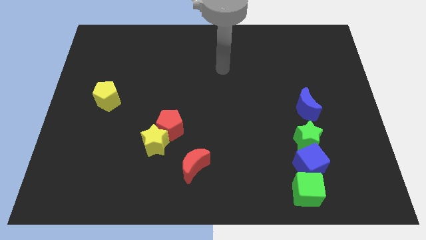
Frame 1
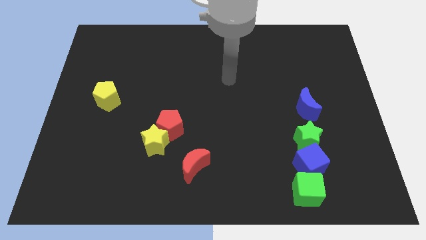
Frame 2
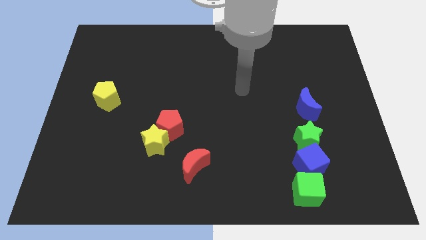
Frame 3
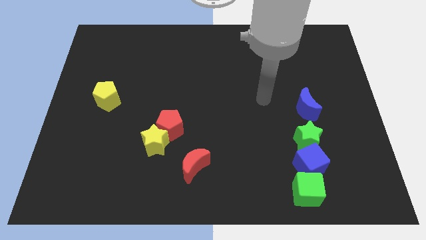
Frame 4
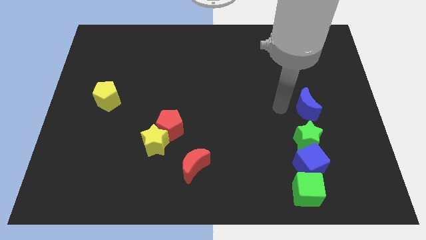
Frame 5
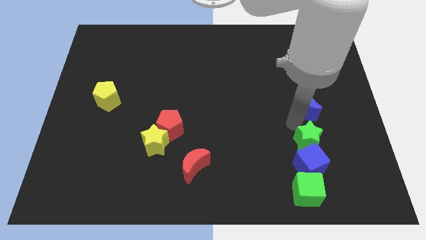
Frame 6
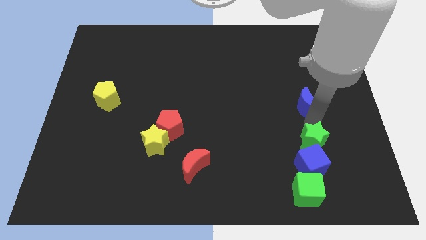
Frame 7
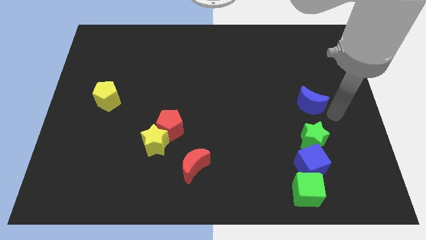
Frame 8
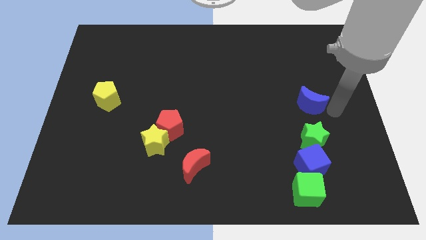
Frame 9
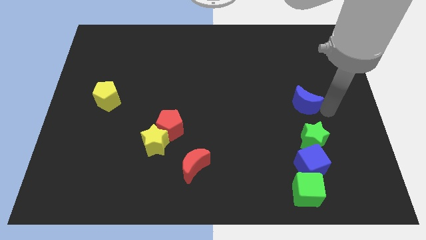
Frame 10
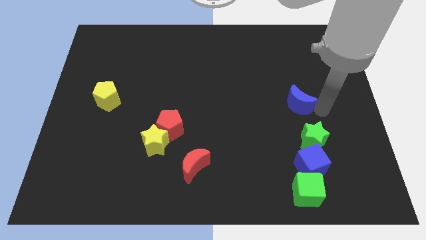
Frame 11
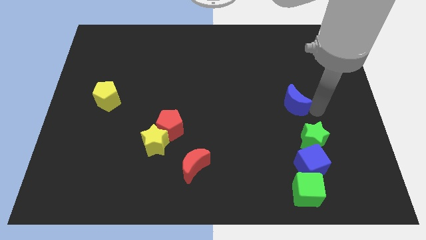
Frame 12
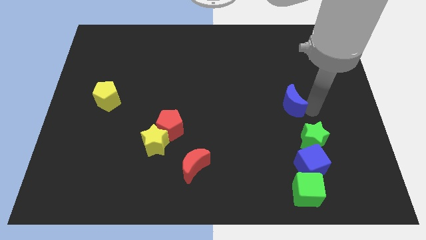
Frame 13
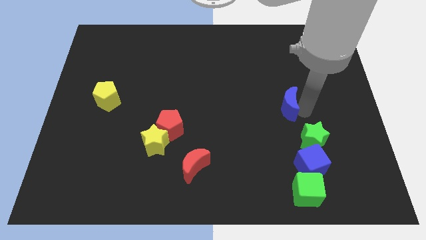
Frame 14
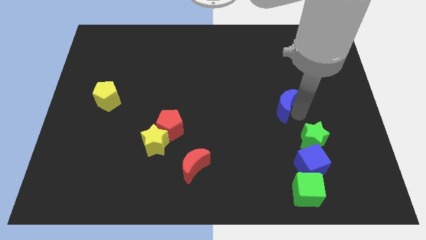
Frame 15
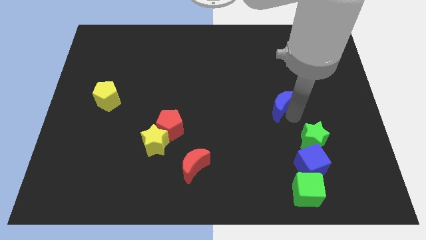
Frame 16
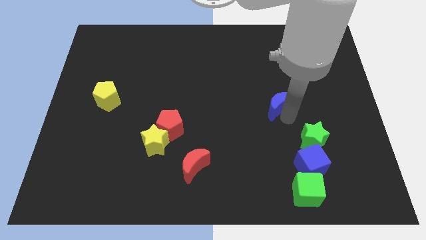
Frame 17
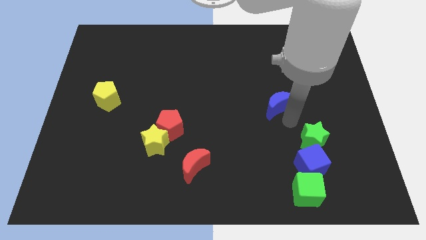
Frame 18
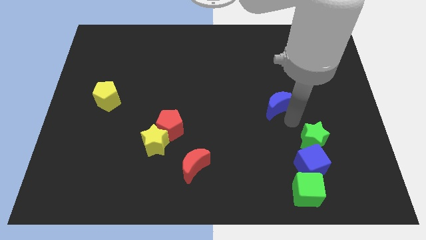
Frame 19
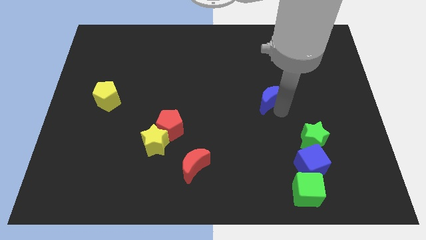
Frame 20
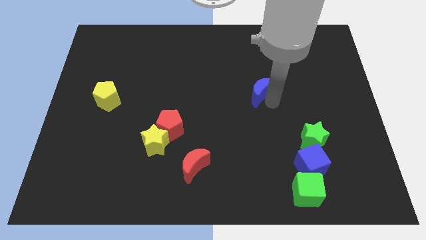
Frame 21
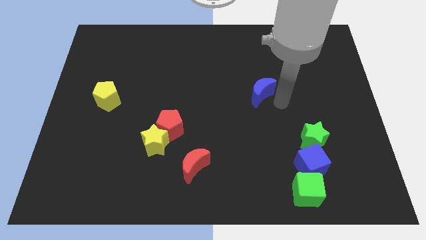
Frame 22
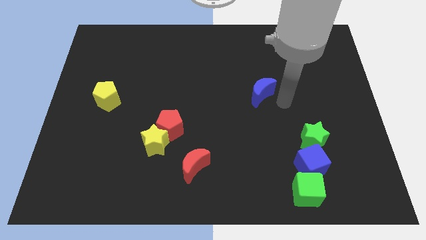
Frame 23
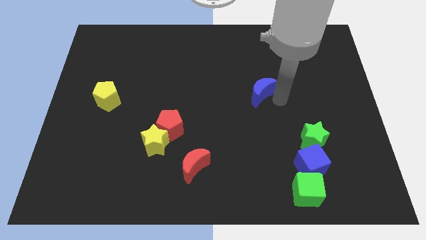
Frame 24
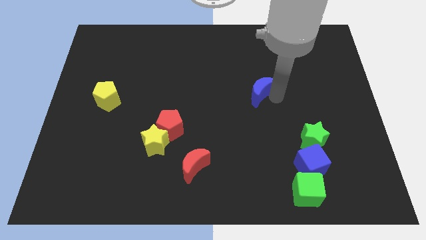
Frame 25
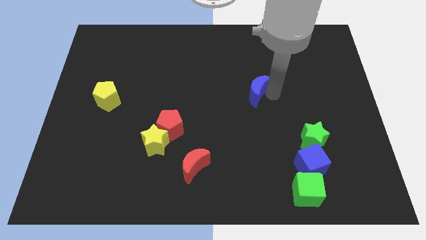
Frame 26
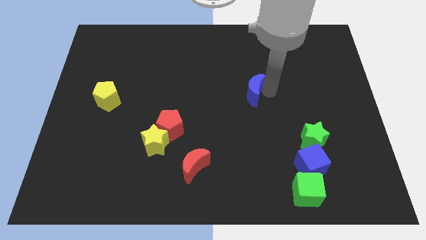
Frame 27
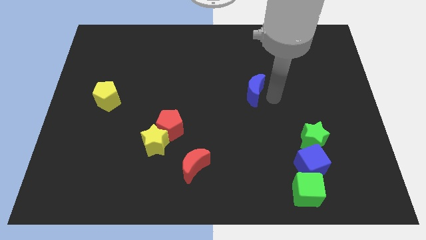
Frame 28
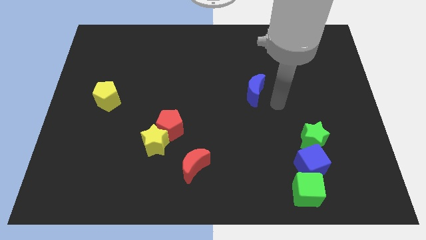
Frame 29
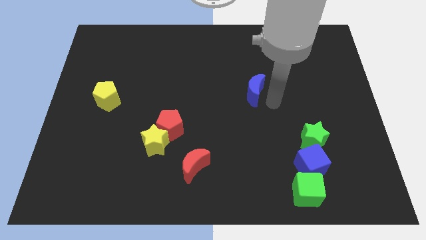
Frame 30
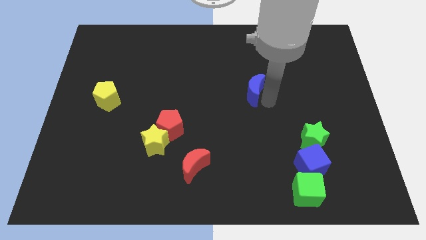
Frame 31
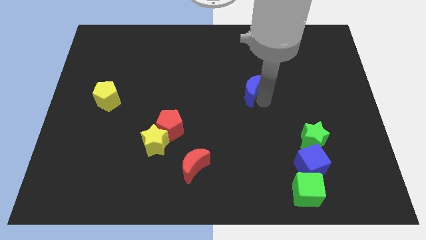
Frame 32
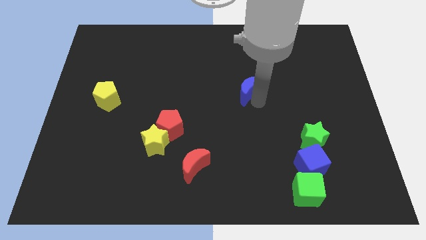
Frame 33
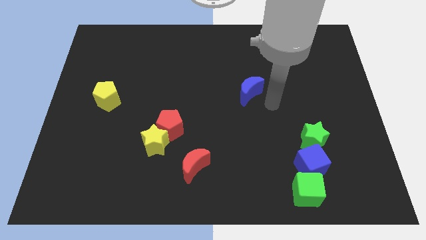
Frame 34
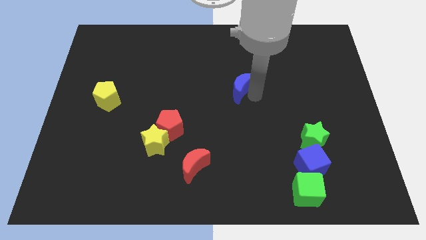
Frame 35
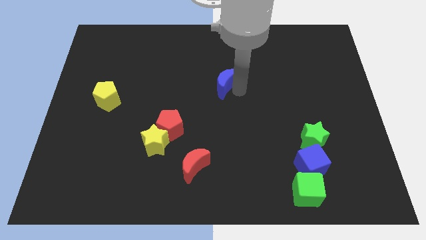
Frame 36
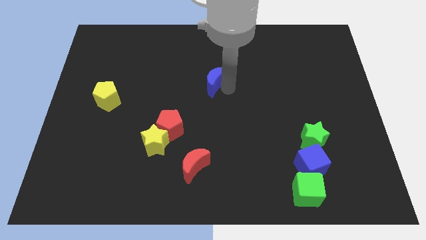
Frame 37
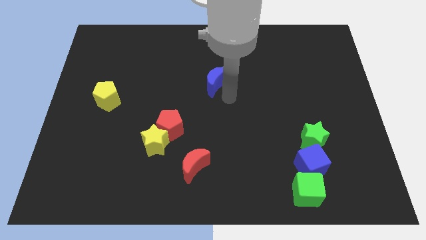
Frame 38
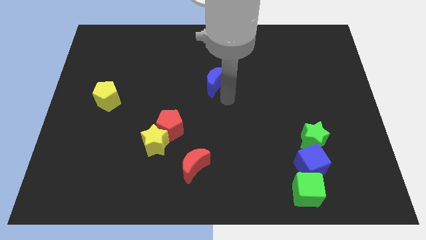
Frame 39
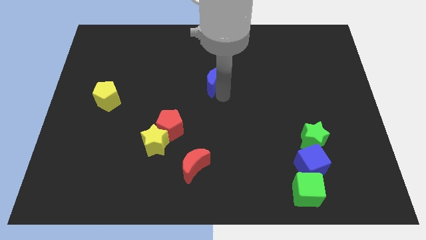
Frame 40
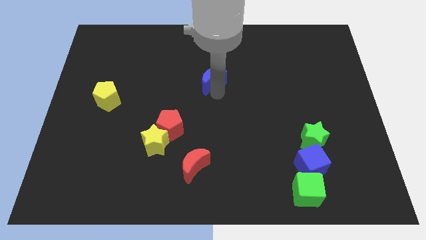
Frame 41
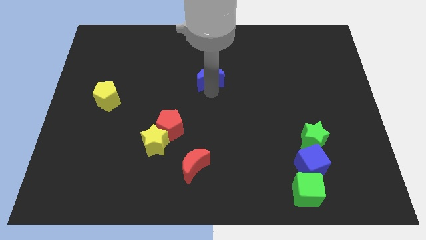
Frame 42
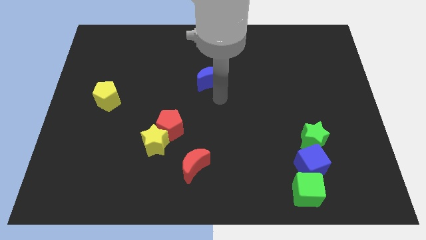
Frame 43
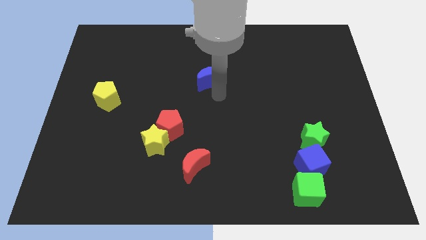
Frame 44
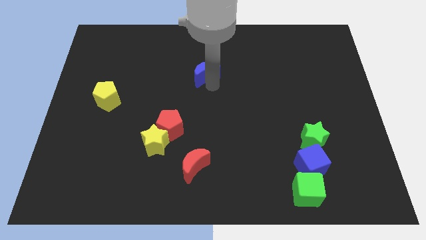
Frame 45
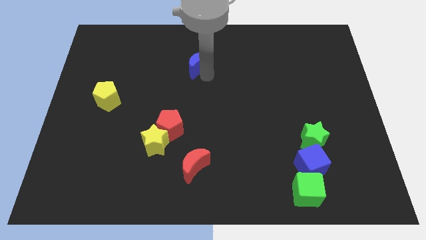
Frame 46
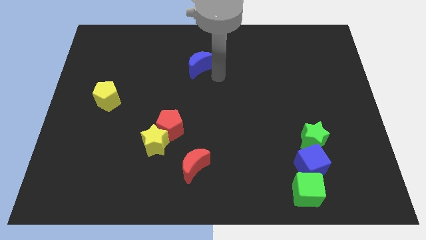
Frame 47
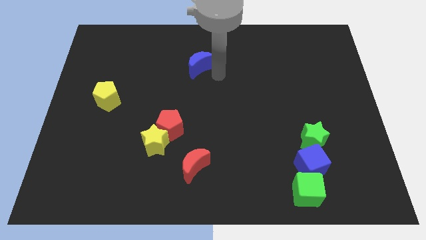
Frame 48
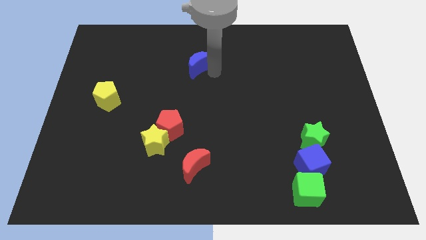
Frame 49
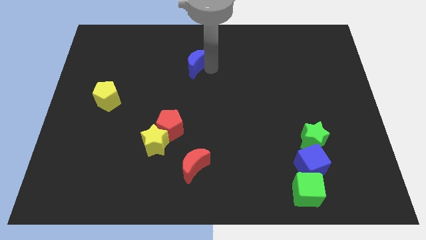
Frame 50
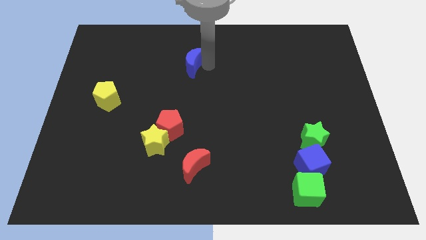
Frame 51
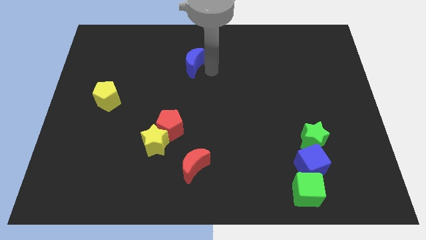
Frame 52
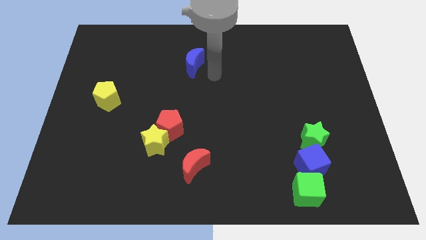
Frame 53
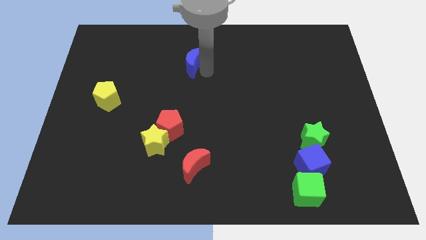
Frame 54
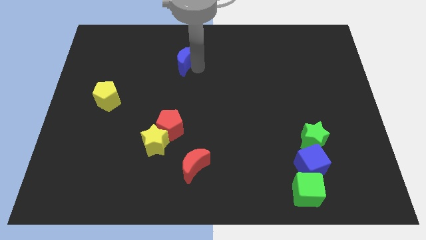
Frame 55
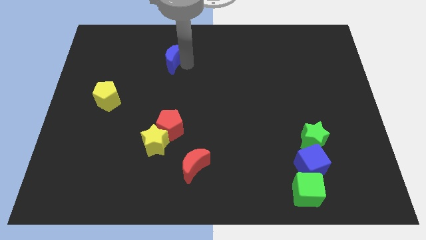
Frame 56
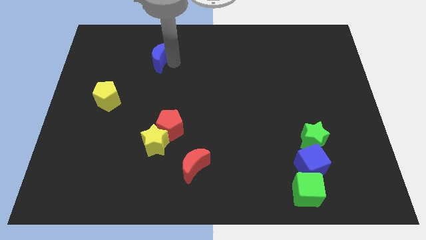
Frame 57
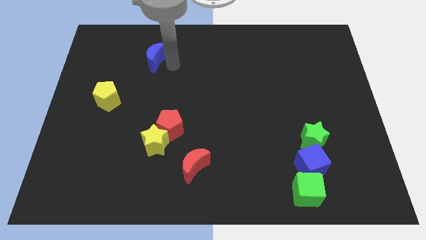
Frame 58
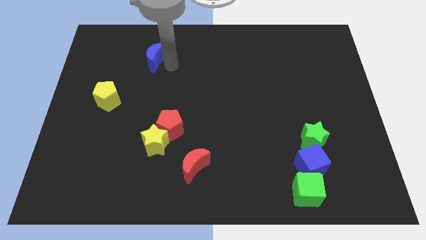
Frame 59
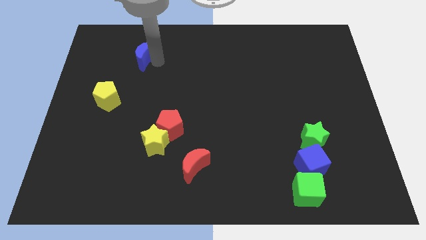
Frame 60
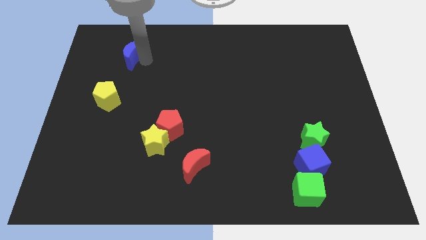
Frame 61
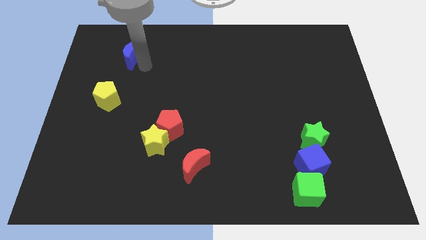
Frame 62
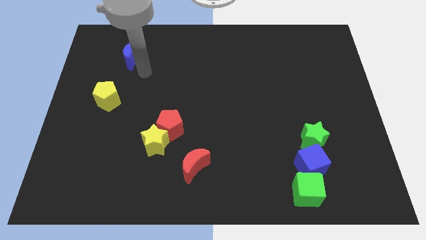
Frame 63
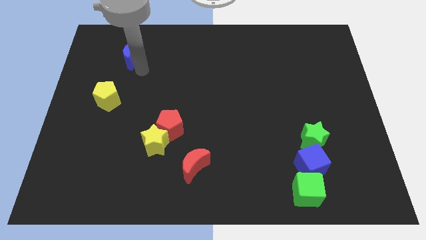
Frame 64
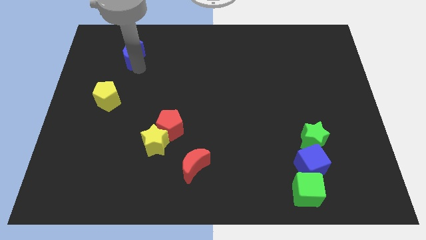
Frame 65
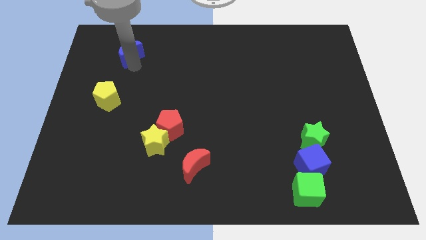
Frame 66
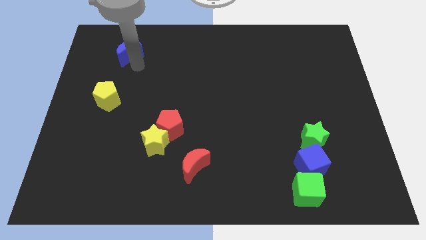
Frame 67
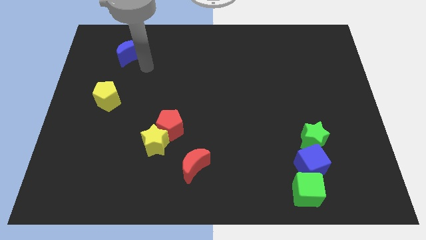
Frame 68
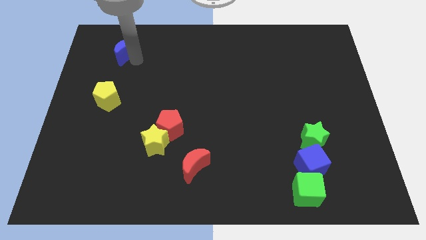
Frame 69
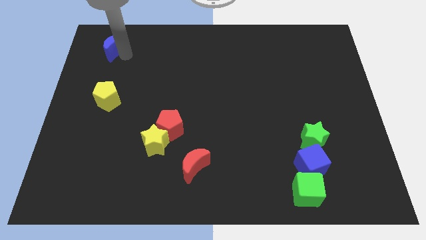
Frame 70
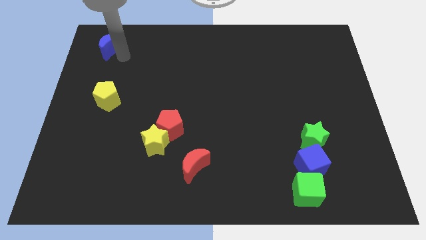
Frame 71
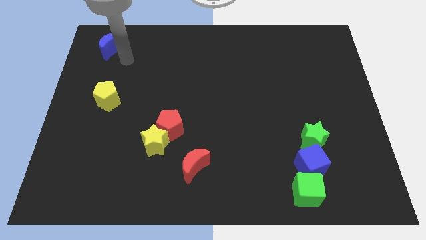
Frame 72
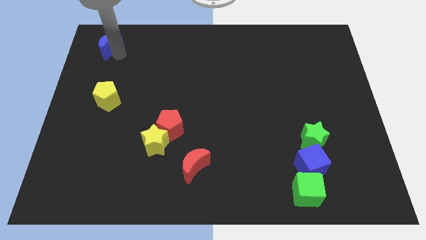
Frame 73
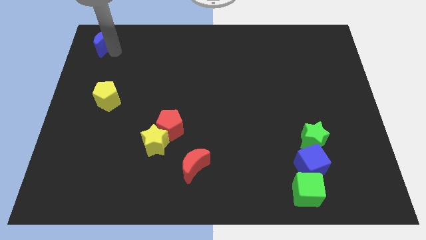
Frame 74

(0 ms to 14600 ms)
put the blue moon to the top left of the board
